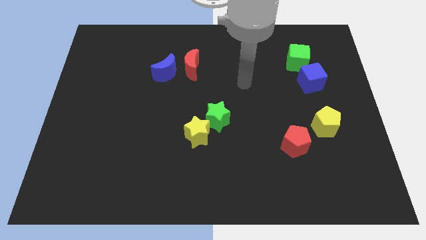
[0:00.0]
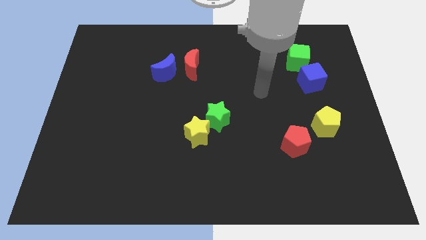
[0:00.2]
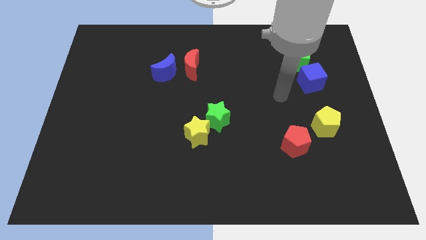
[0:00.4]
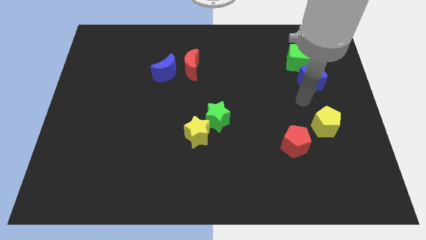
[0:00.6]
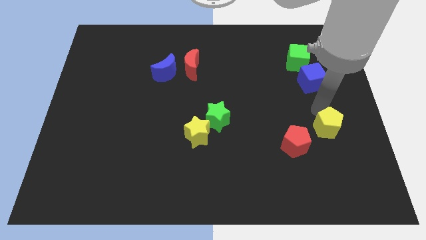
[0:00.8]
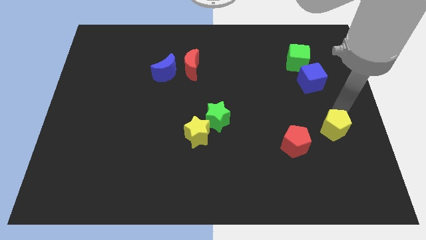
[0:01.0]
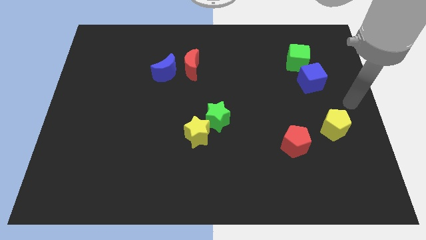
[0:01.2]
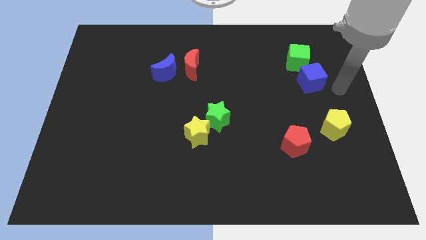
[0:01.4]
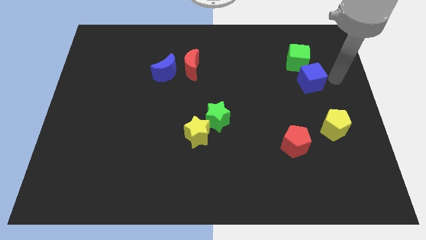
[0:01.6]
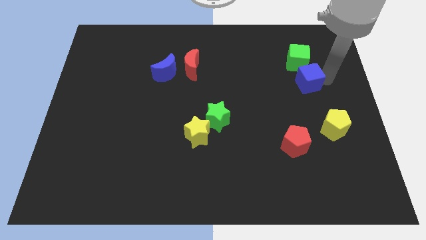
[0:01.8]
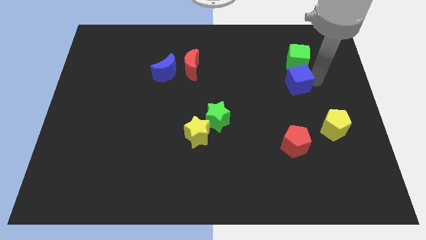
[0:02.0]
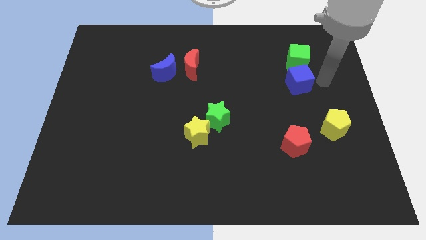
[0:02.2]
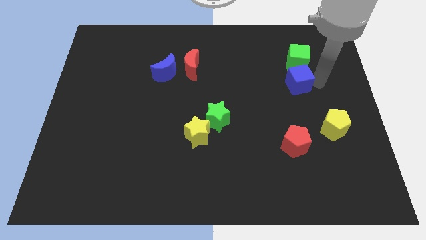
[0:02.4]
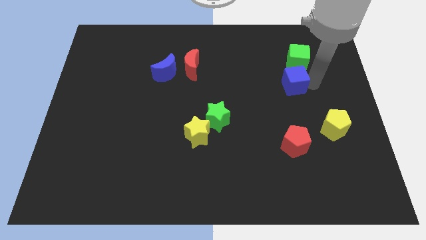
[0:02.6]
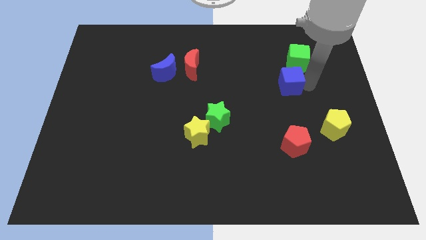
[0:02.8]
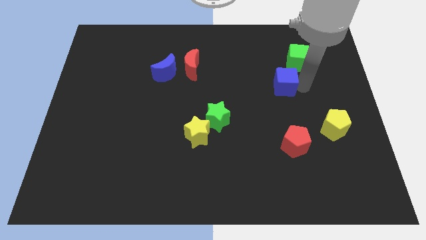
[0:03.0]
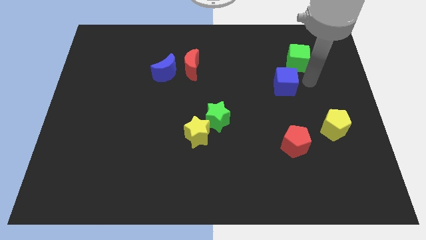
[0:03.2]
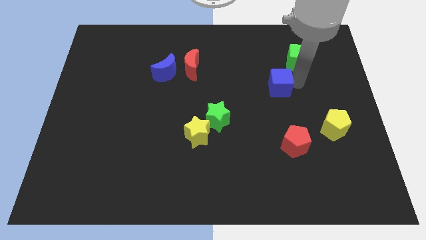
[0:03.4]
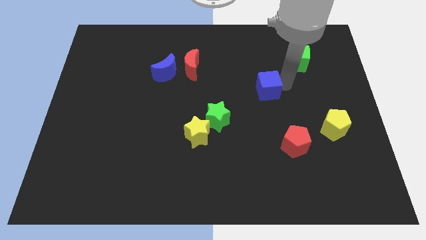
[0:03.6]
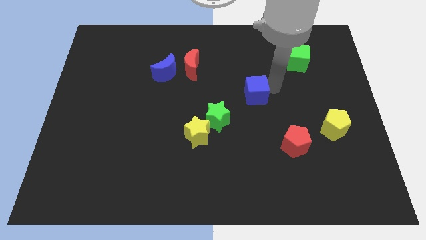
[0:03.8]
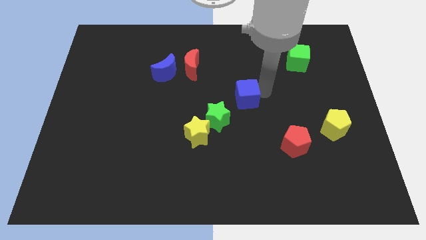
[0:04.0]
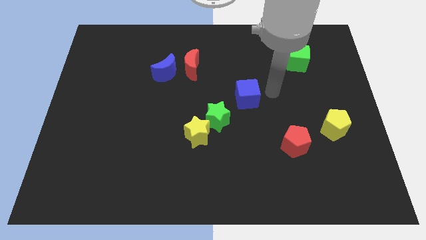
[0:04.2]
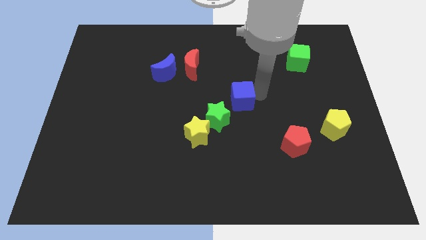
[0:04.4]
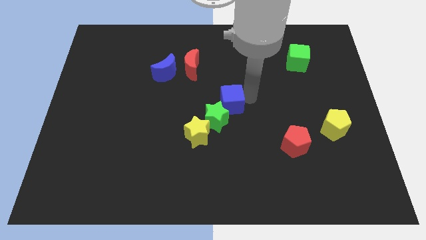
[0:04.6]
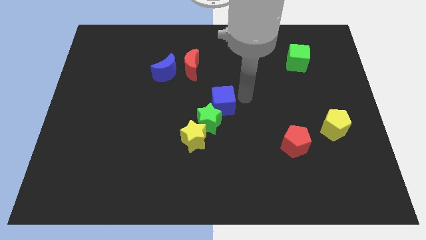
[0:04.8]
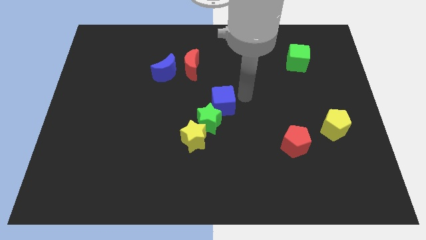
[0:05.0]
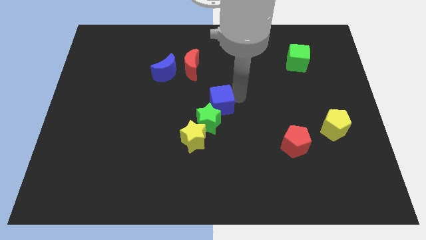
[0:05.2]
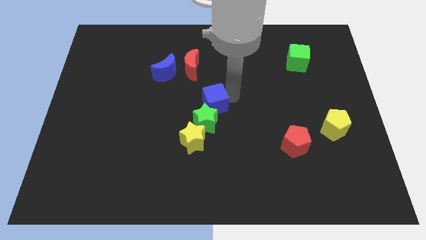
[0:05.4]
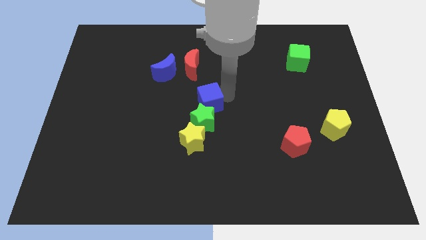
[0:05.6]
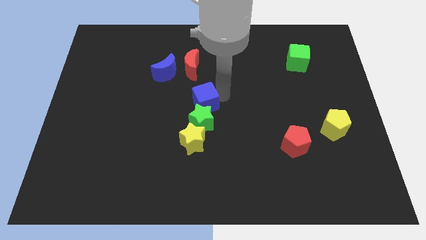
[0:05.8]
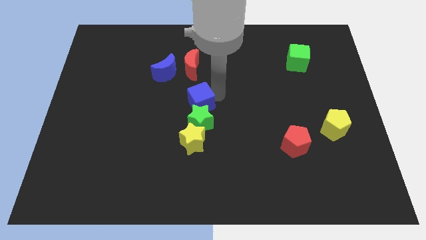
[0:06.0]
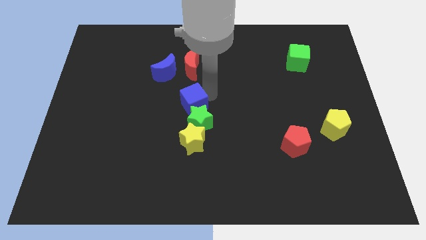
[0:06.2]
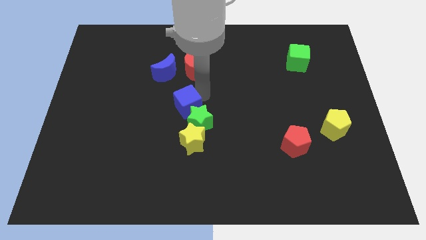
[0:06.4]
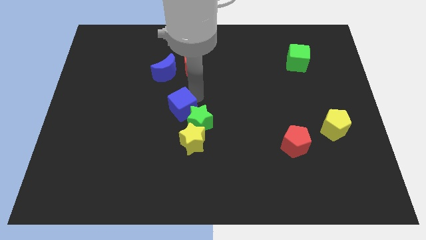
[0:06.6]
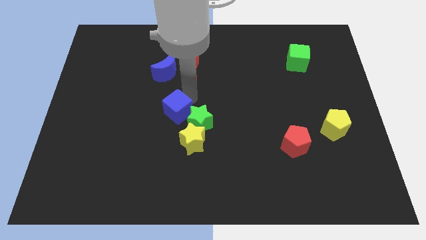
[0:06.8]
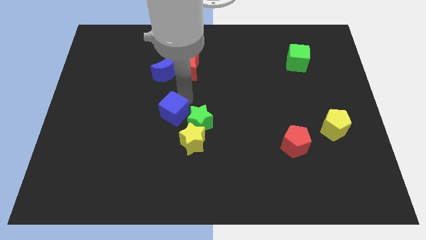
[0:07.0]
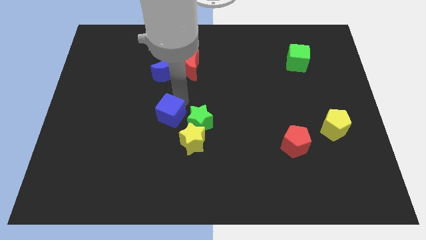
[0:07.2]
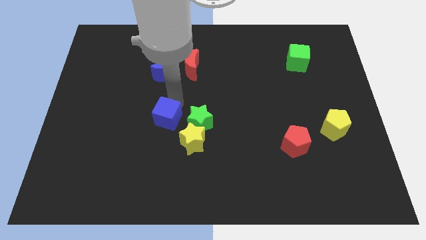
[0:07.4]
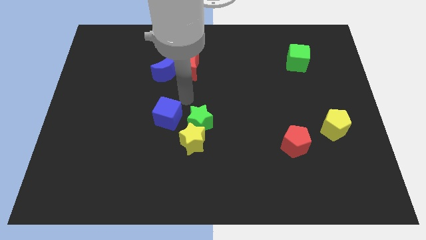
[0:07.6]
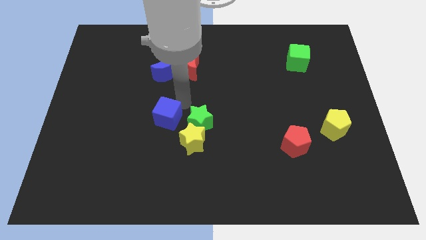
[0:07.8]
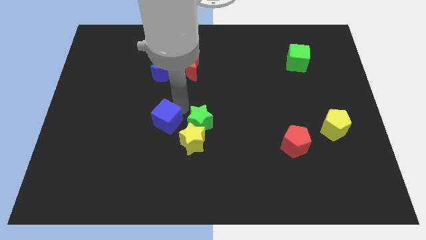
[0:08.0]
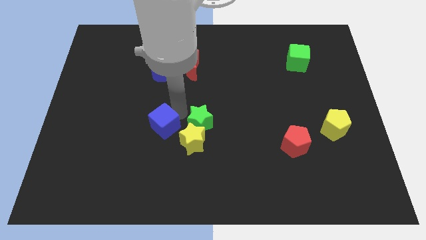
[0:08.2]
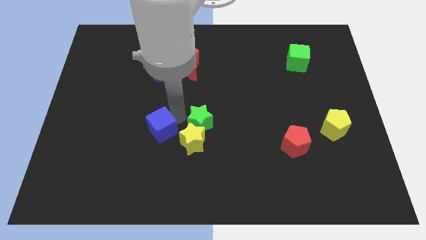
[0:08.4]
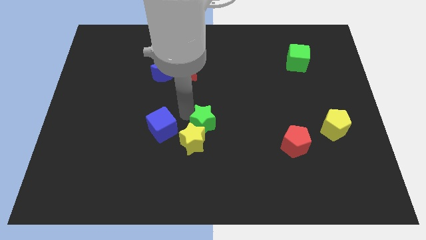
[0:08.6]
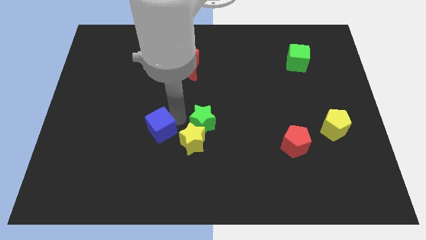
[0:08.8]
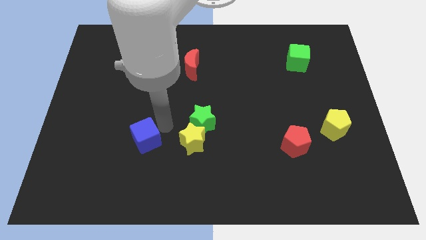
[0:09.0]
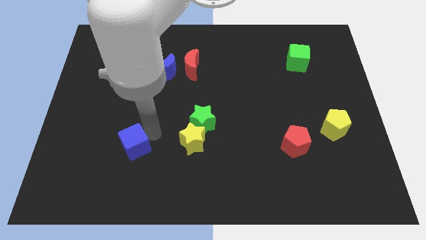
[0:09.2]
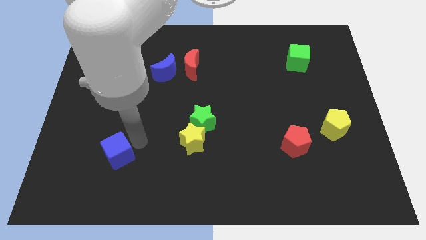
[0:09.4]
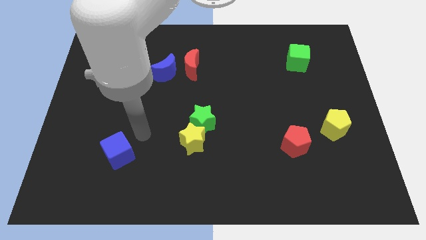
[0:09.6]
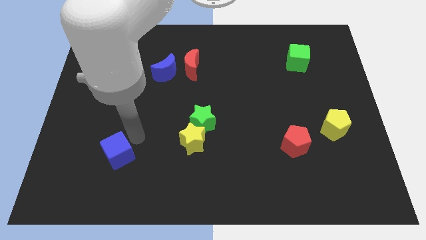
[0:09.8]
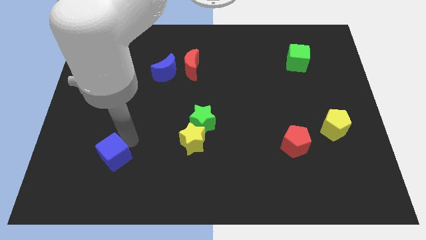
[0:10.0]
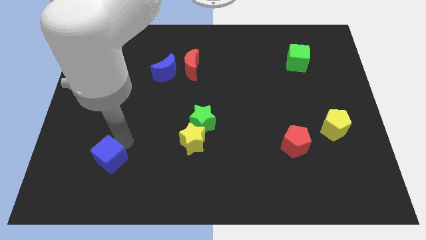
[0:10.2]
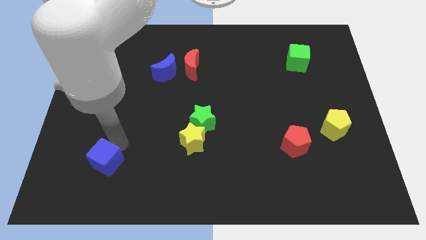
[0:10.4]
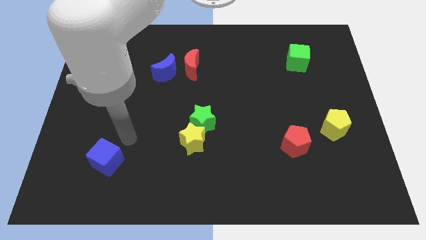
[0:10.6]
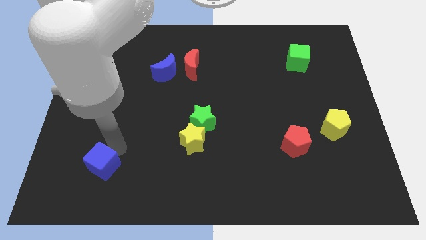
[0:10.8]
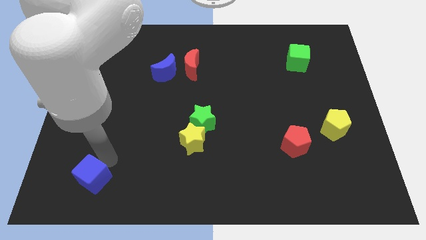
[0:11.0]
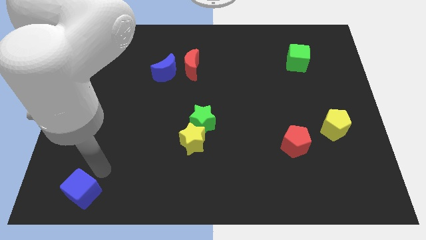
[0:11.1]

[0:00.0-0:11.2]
move the blue cube to the bottom left corner

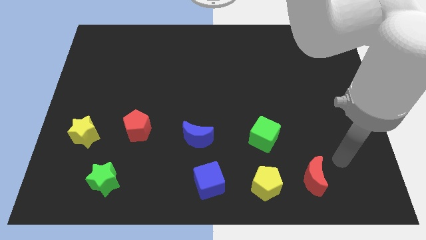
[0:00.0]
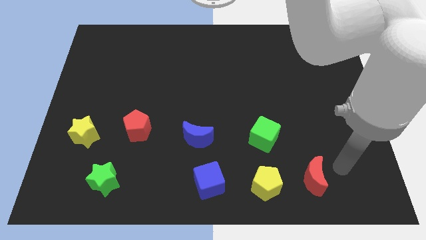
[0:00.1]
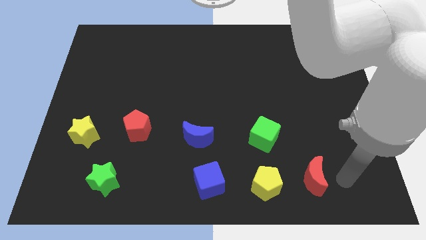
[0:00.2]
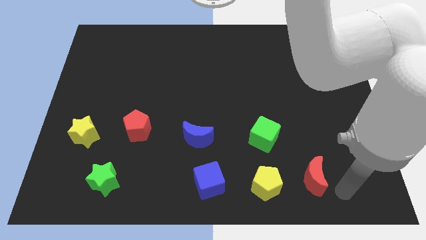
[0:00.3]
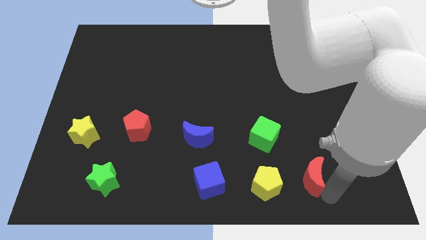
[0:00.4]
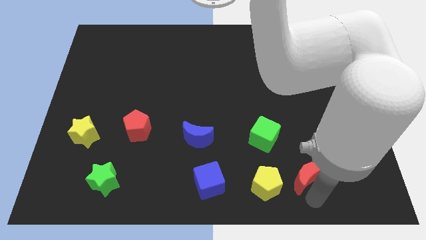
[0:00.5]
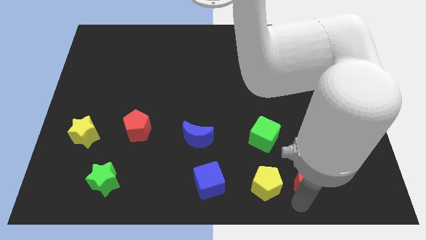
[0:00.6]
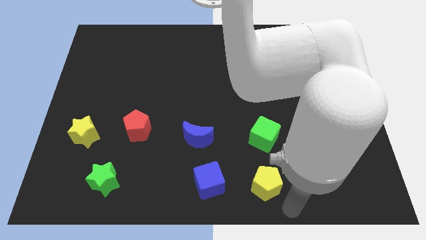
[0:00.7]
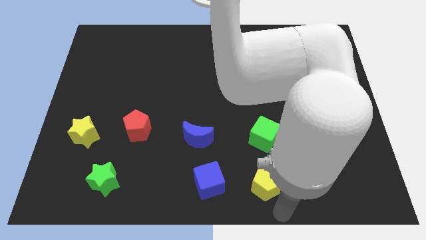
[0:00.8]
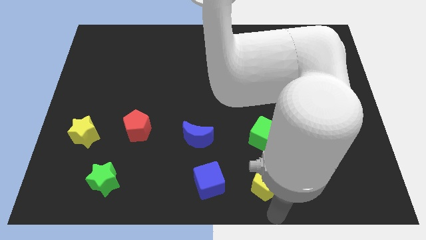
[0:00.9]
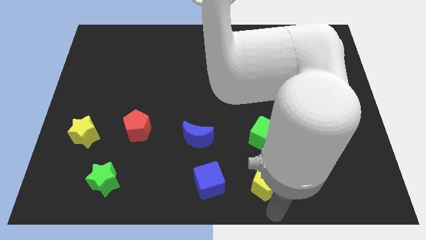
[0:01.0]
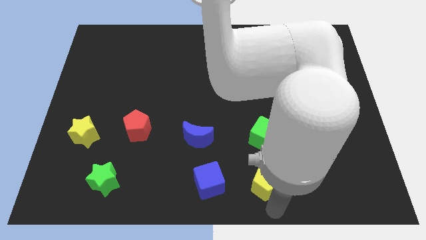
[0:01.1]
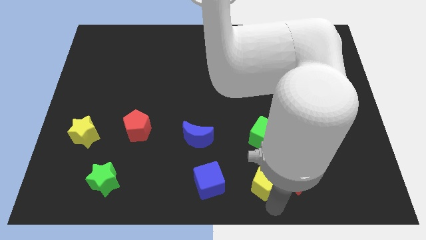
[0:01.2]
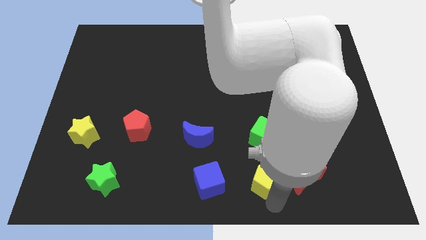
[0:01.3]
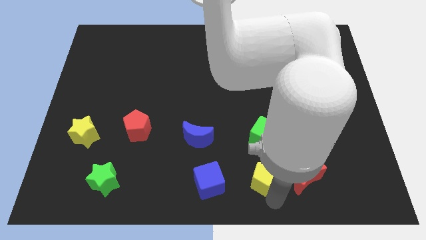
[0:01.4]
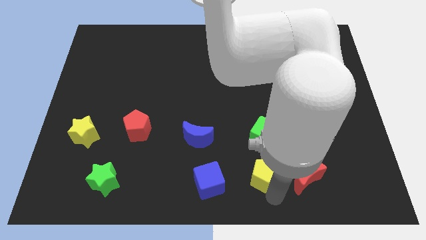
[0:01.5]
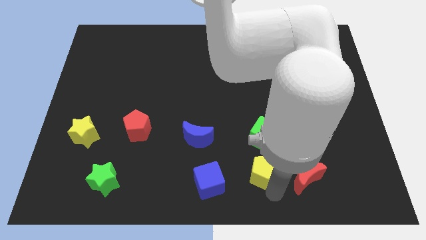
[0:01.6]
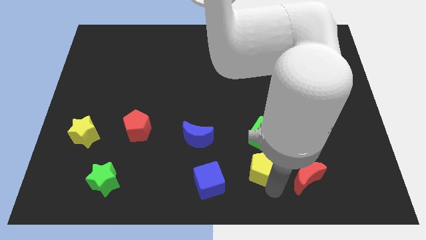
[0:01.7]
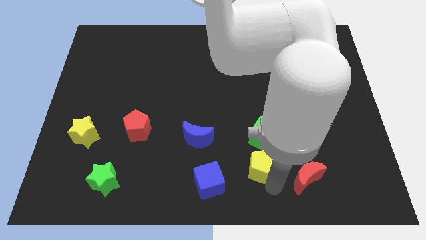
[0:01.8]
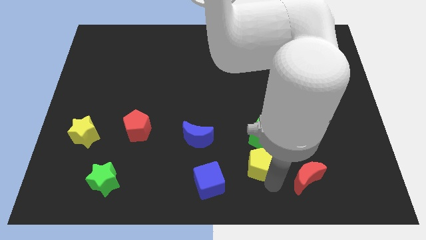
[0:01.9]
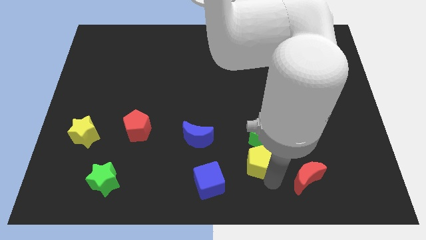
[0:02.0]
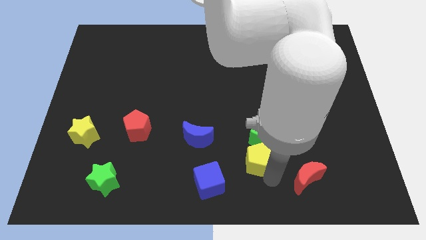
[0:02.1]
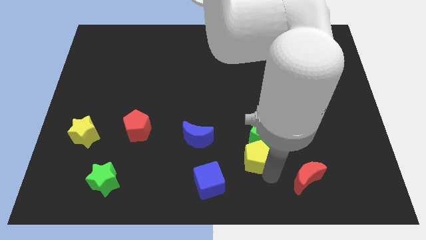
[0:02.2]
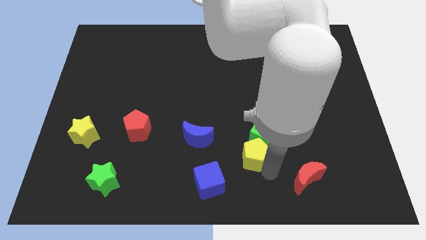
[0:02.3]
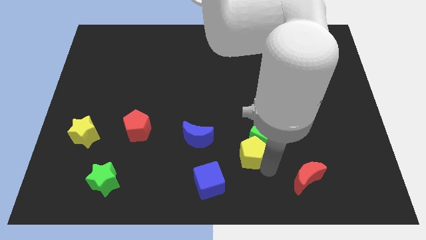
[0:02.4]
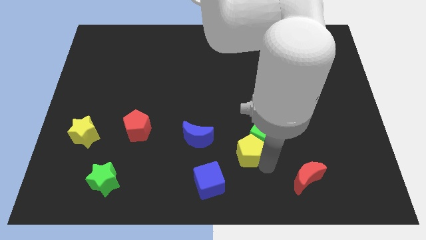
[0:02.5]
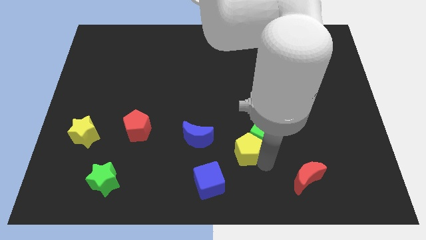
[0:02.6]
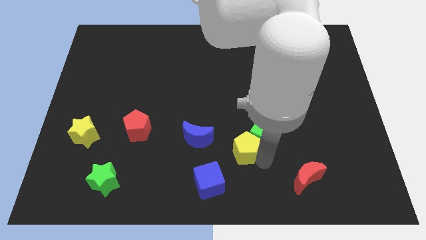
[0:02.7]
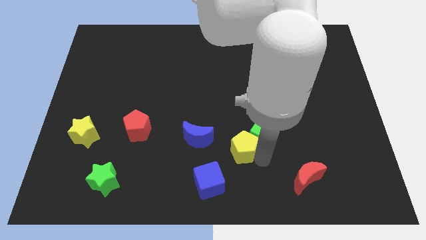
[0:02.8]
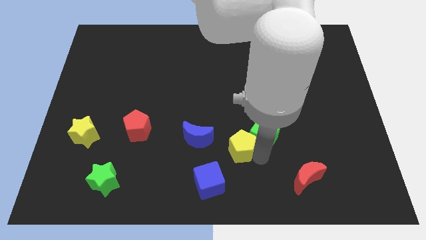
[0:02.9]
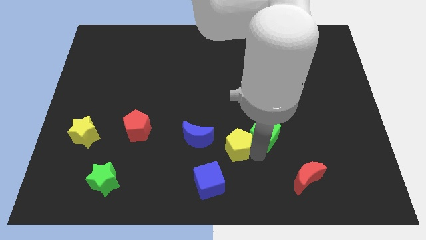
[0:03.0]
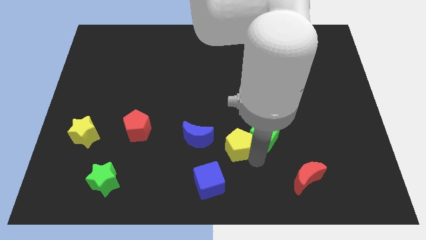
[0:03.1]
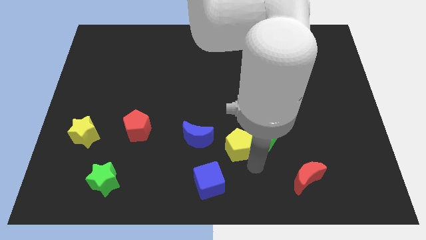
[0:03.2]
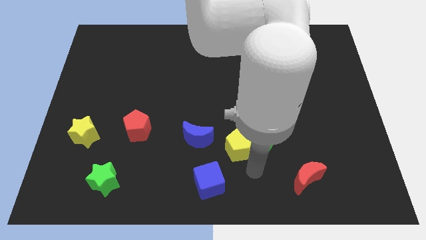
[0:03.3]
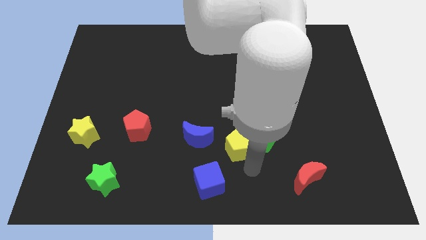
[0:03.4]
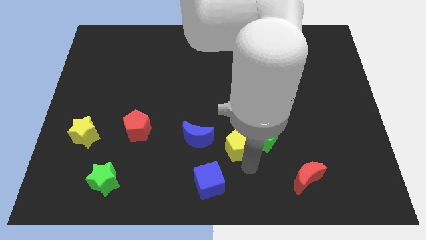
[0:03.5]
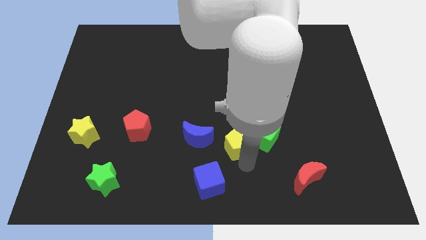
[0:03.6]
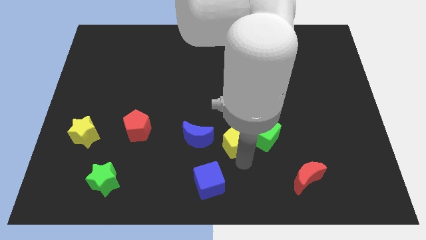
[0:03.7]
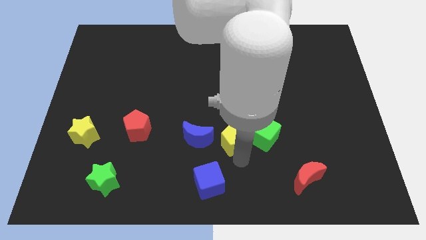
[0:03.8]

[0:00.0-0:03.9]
put the yellow pentagon to the middle of the board
